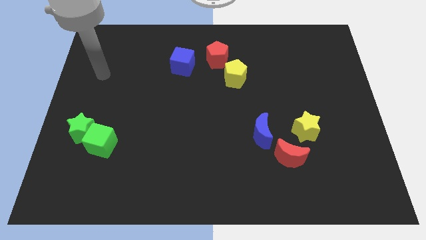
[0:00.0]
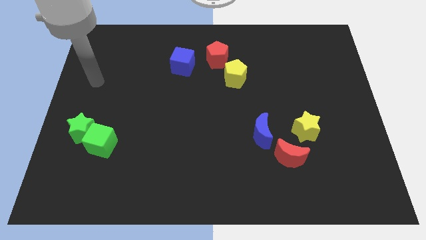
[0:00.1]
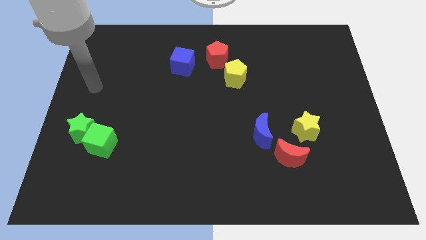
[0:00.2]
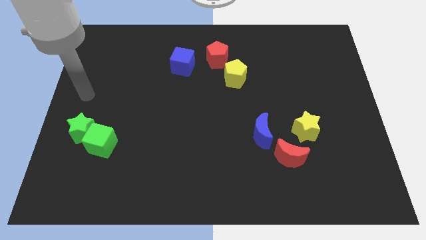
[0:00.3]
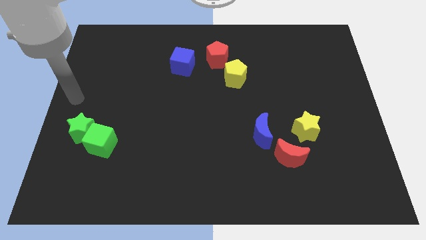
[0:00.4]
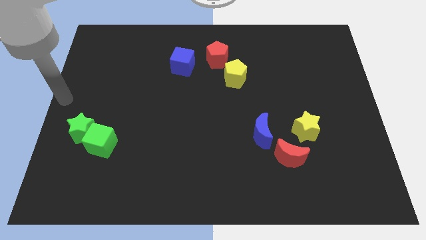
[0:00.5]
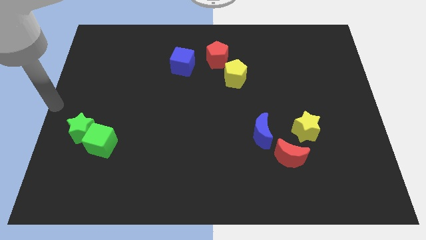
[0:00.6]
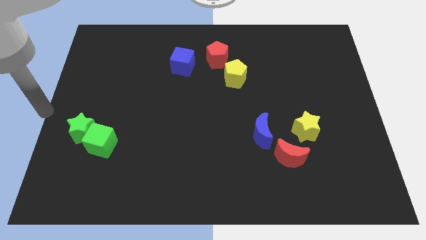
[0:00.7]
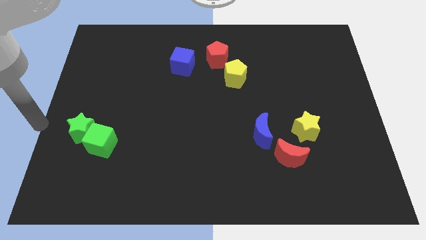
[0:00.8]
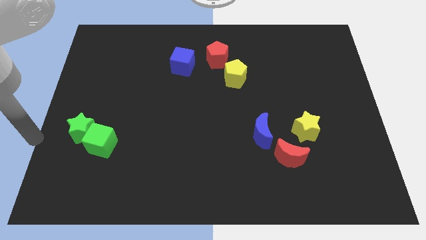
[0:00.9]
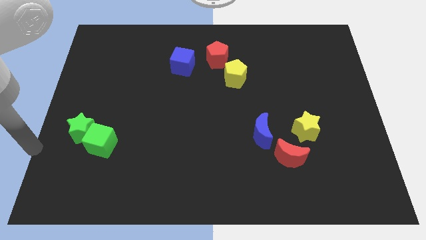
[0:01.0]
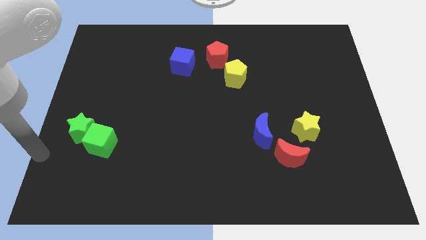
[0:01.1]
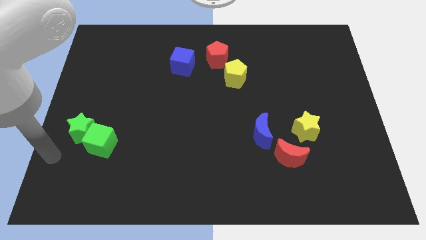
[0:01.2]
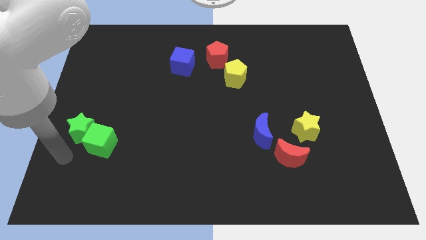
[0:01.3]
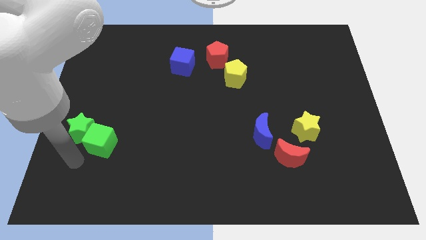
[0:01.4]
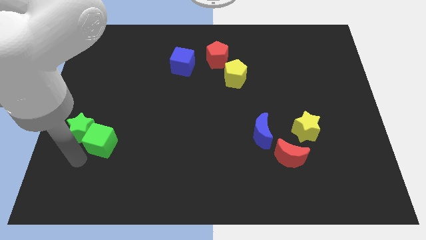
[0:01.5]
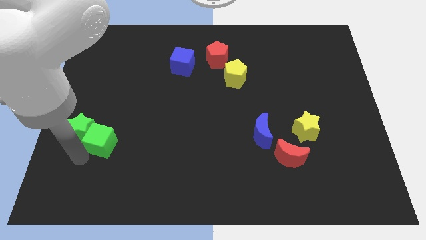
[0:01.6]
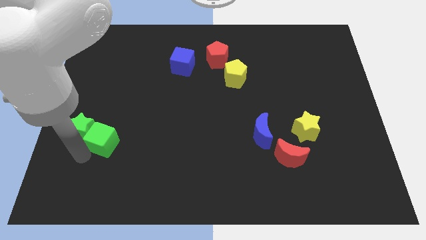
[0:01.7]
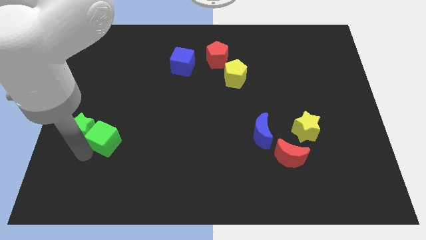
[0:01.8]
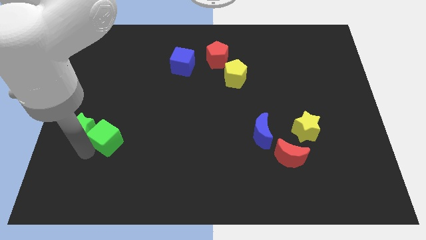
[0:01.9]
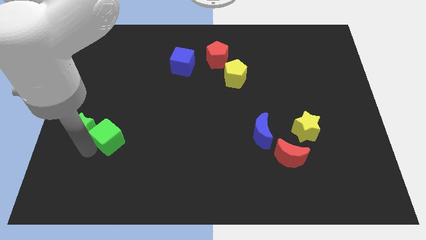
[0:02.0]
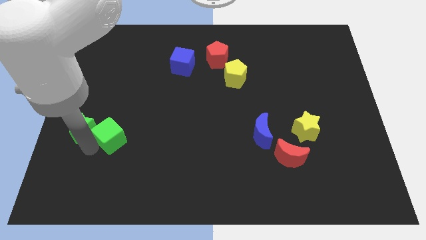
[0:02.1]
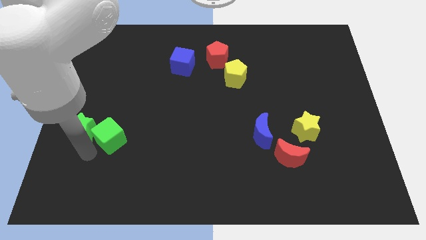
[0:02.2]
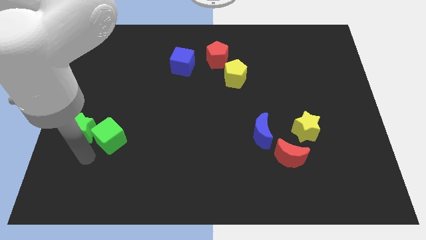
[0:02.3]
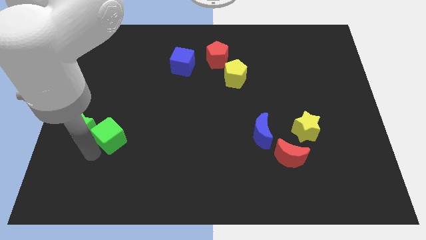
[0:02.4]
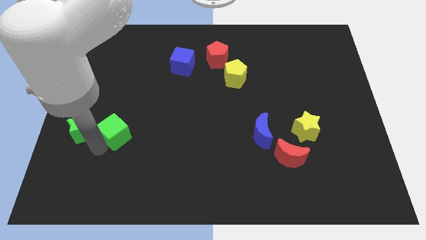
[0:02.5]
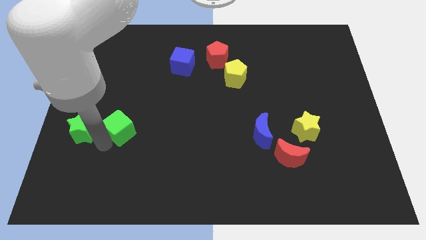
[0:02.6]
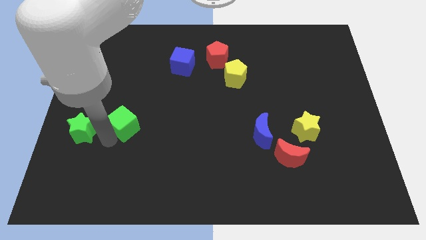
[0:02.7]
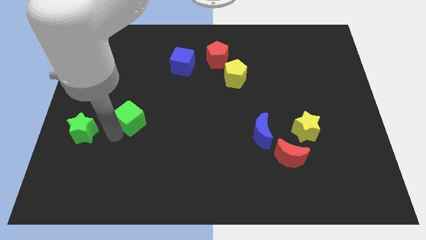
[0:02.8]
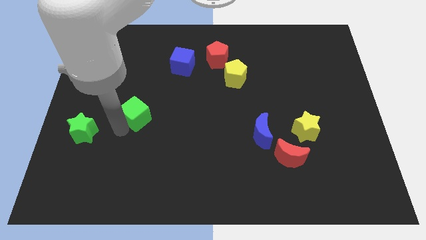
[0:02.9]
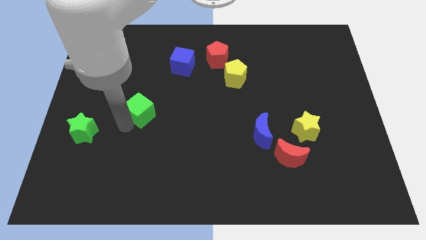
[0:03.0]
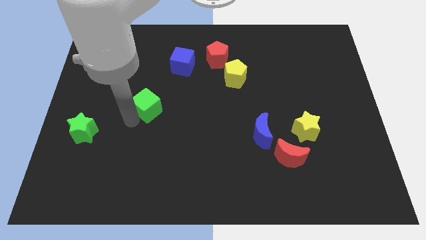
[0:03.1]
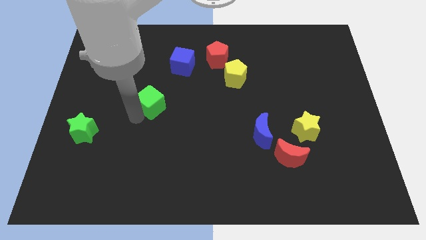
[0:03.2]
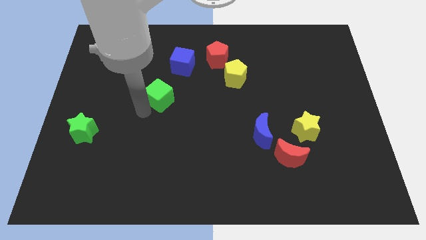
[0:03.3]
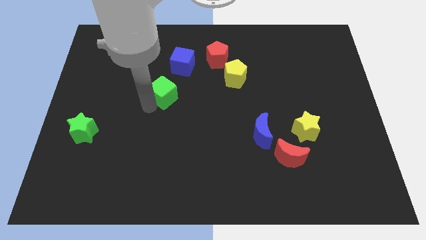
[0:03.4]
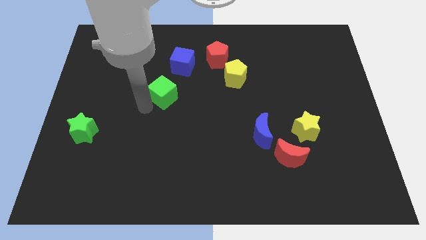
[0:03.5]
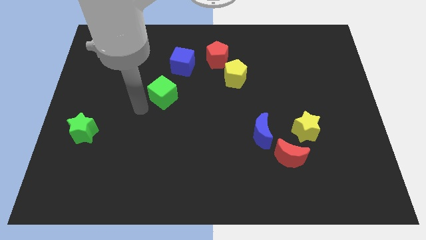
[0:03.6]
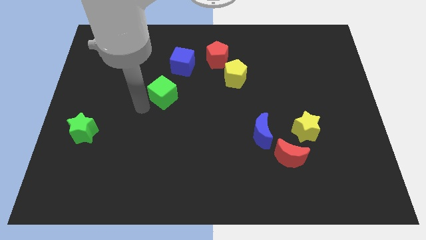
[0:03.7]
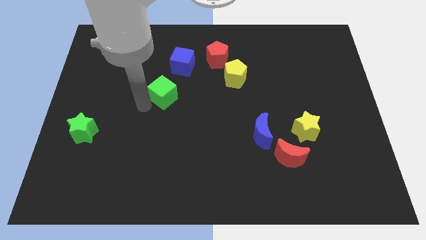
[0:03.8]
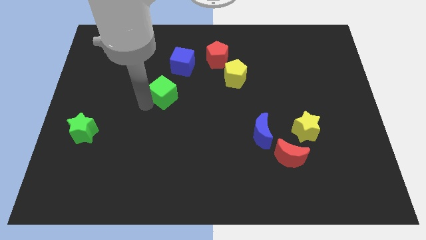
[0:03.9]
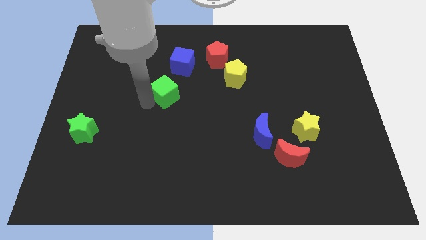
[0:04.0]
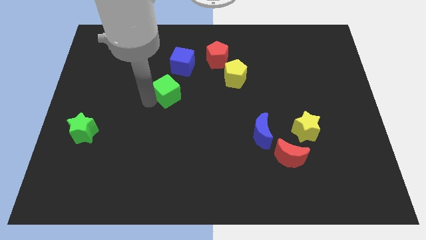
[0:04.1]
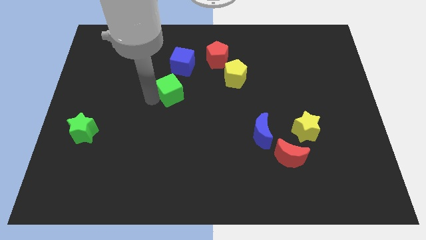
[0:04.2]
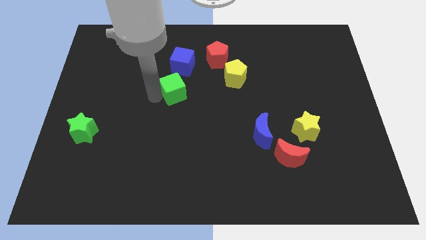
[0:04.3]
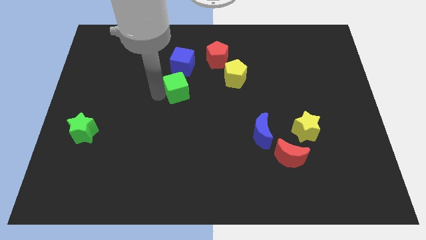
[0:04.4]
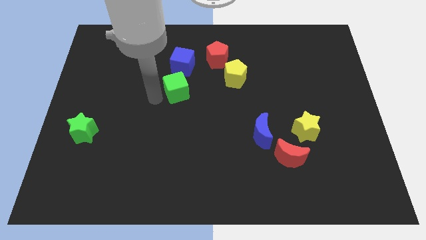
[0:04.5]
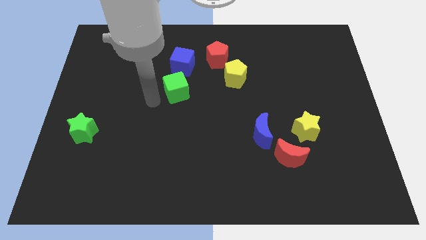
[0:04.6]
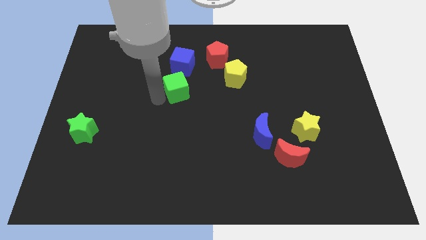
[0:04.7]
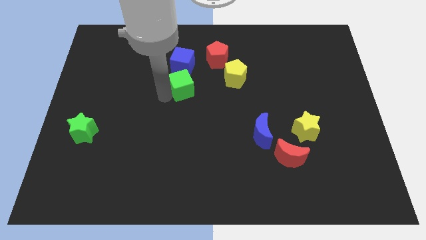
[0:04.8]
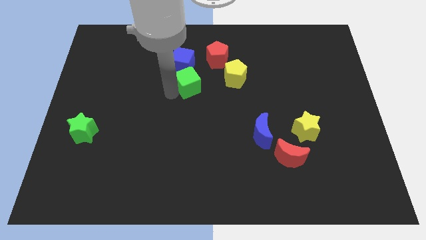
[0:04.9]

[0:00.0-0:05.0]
push the green cube diagonally down and to the right of the blue cube

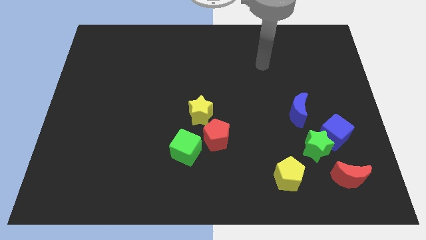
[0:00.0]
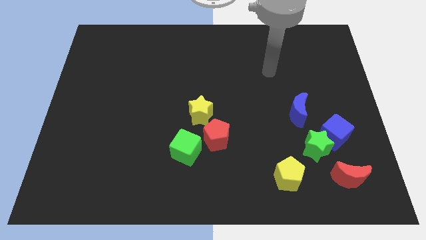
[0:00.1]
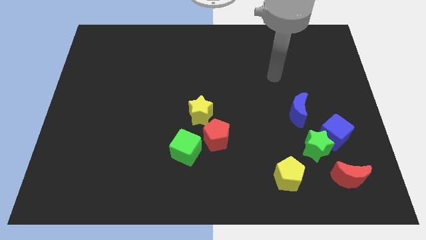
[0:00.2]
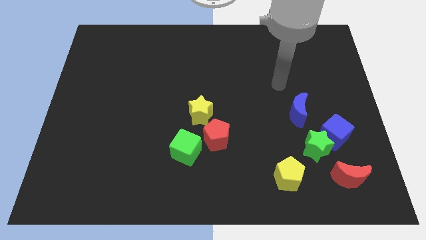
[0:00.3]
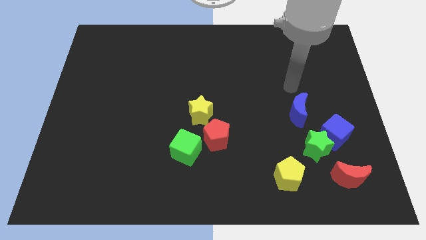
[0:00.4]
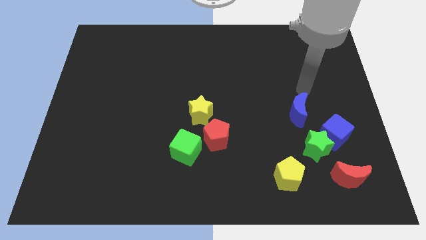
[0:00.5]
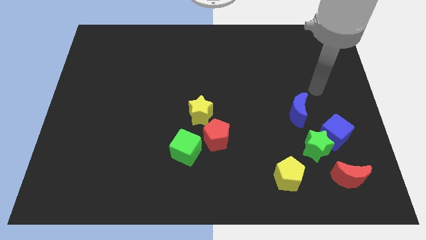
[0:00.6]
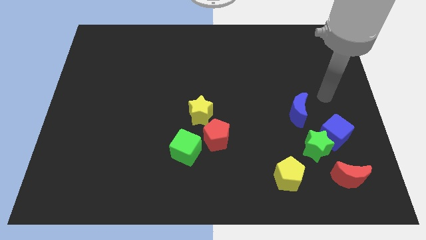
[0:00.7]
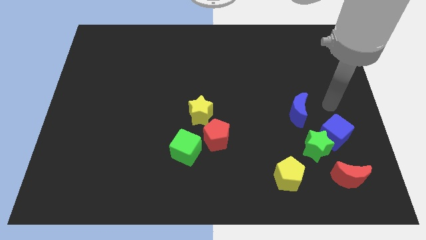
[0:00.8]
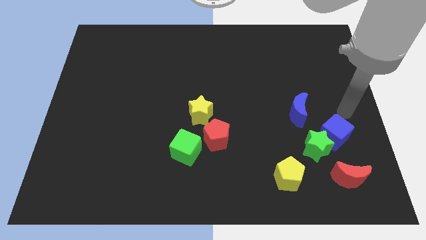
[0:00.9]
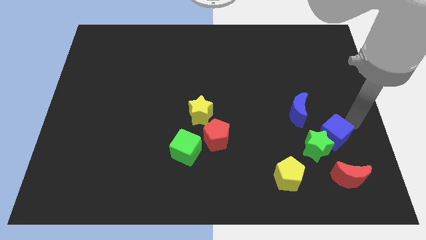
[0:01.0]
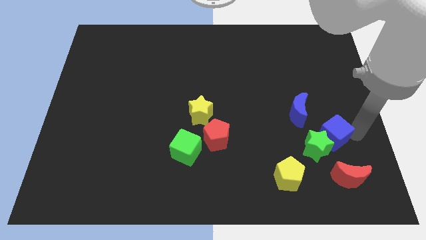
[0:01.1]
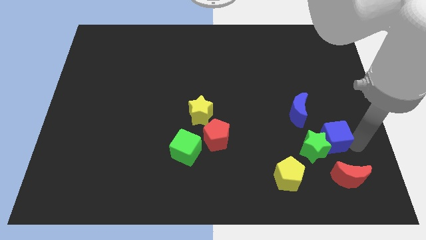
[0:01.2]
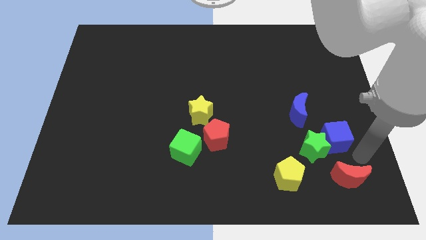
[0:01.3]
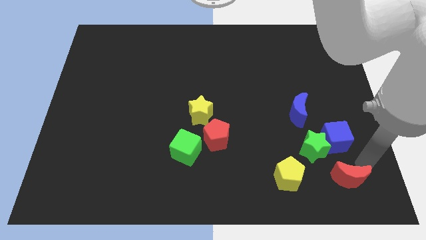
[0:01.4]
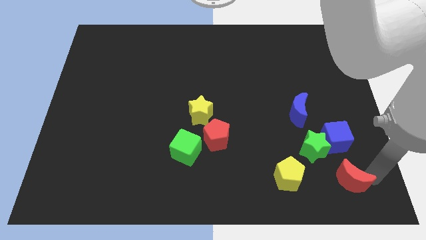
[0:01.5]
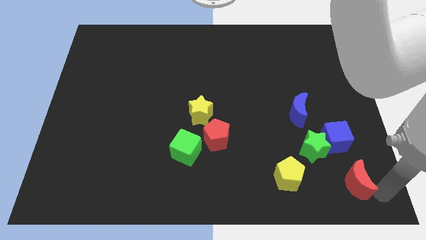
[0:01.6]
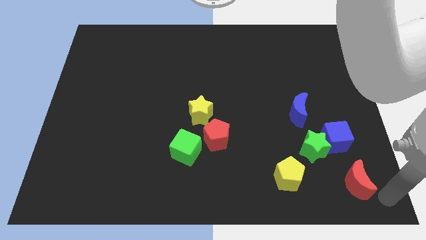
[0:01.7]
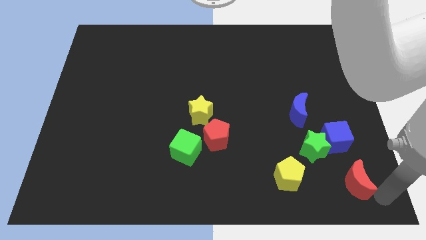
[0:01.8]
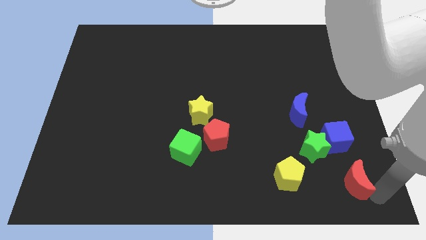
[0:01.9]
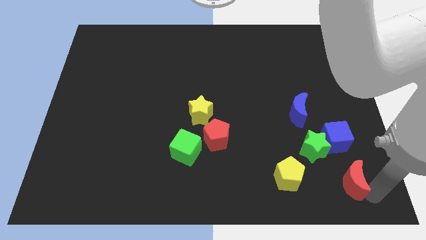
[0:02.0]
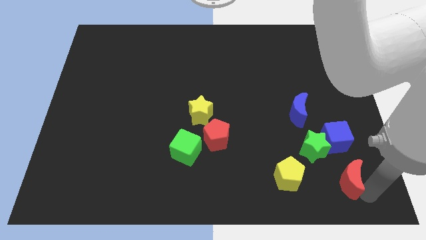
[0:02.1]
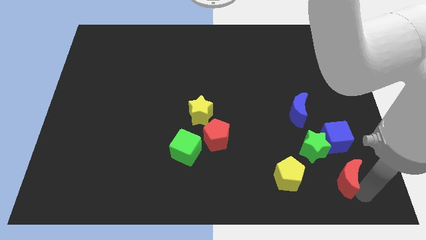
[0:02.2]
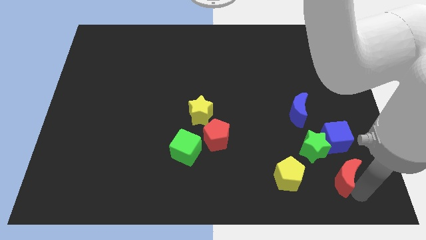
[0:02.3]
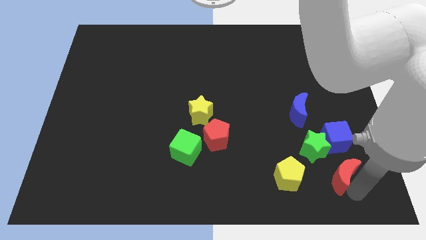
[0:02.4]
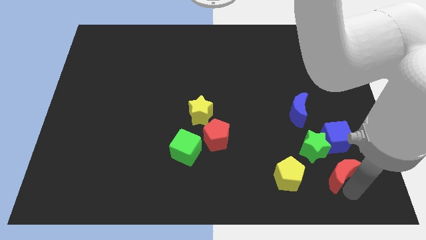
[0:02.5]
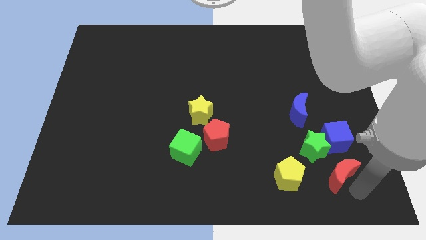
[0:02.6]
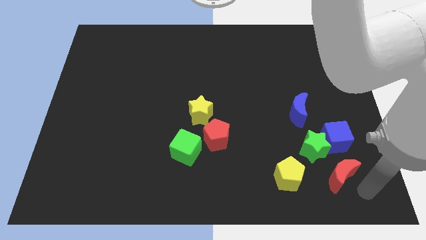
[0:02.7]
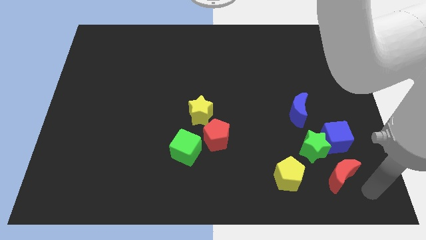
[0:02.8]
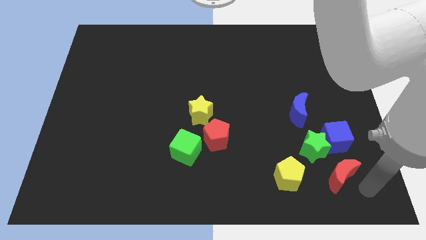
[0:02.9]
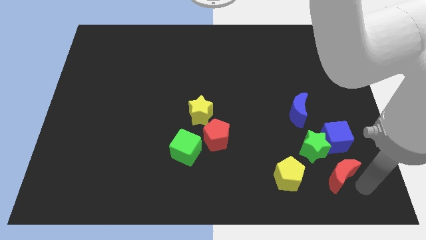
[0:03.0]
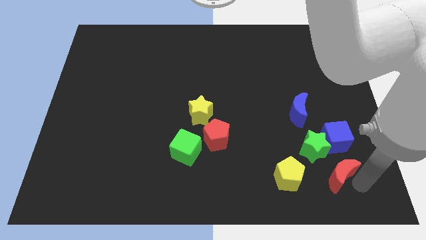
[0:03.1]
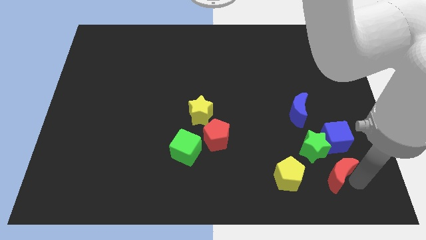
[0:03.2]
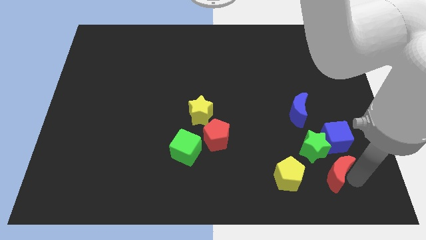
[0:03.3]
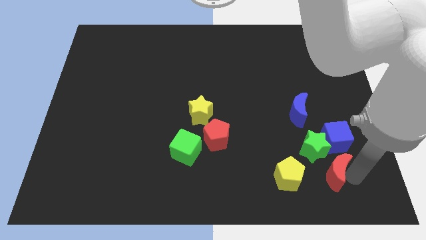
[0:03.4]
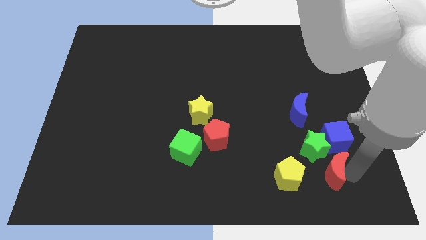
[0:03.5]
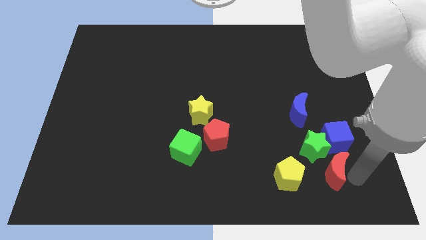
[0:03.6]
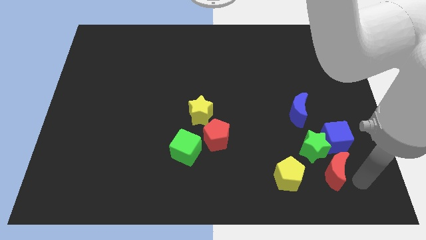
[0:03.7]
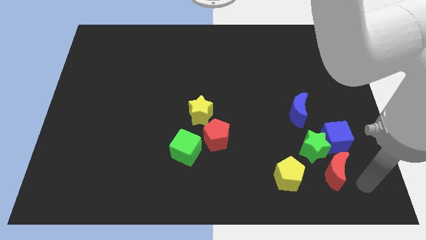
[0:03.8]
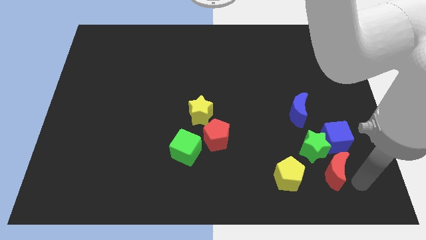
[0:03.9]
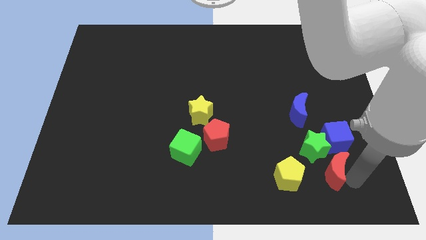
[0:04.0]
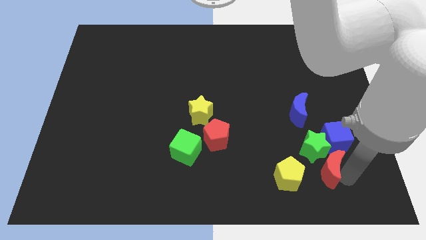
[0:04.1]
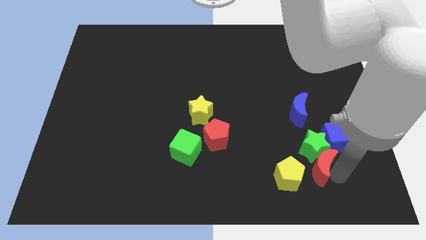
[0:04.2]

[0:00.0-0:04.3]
put the red moon below the blue moon
